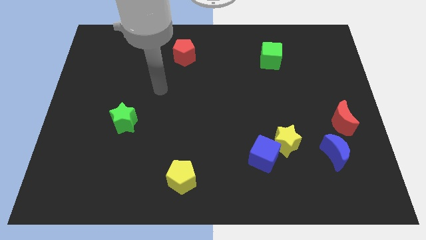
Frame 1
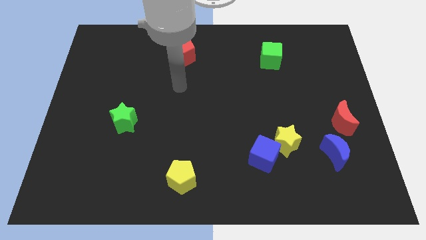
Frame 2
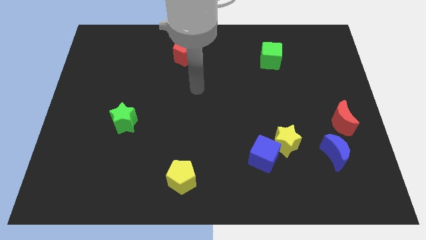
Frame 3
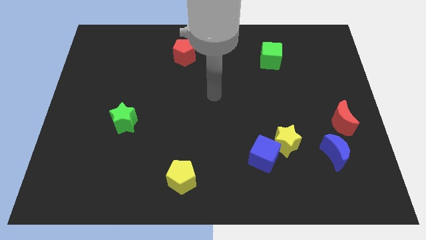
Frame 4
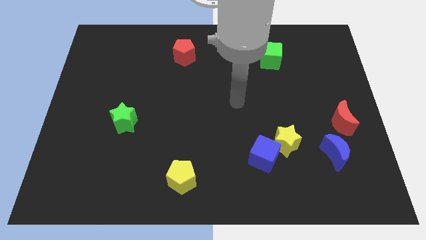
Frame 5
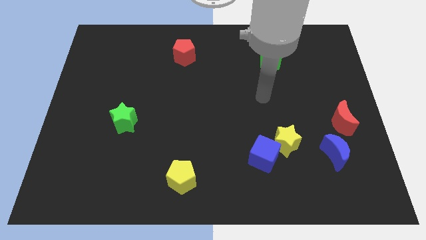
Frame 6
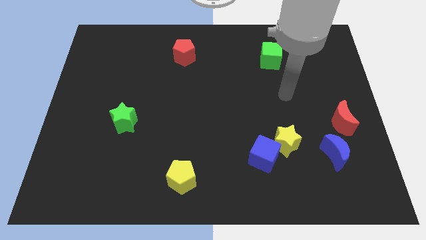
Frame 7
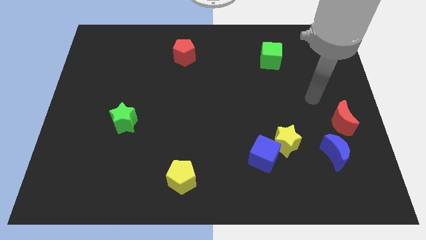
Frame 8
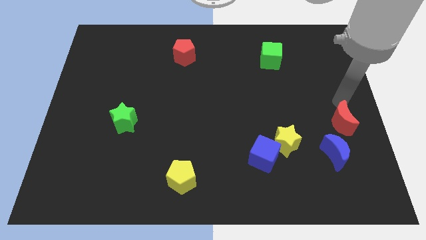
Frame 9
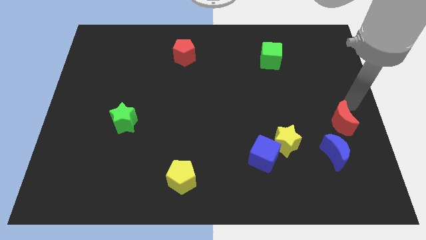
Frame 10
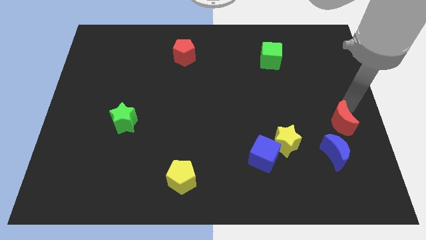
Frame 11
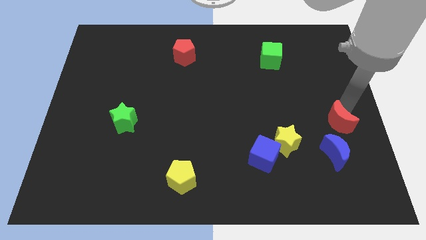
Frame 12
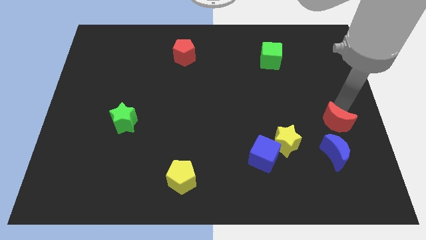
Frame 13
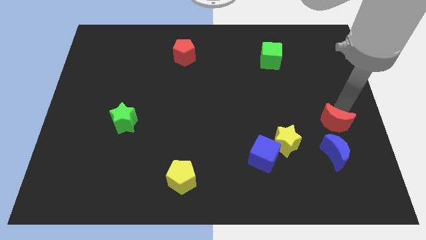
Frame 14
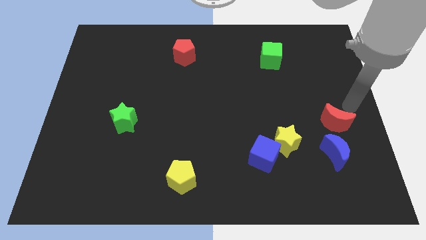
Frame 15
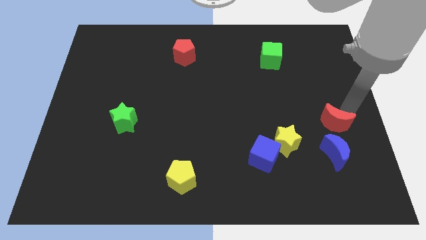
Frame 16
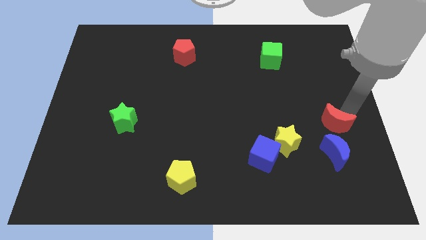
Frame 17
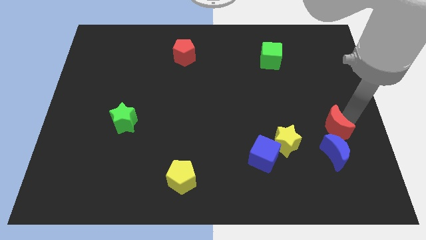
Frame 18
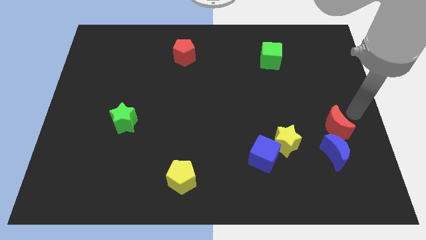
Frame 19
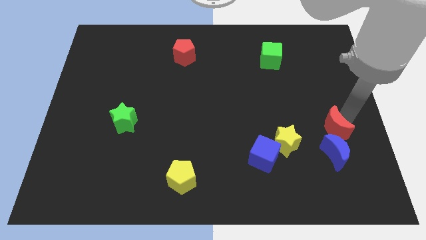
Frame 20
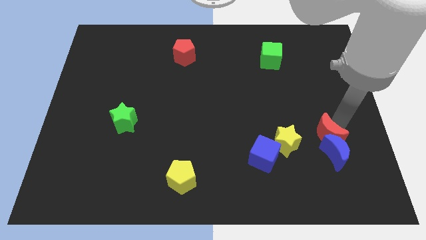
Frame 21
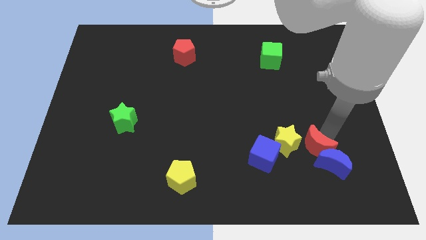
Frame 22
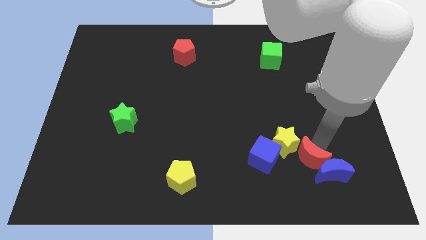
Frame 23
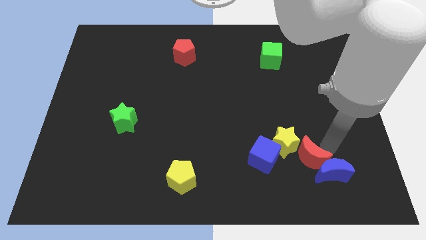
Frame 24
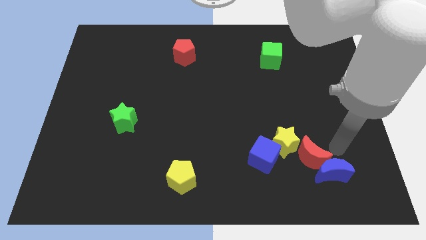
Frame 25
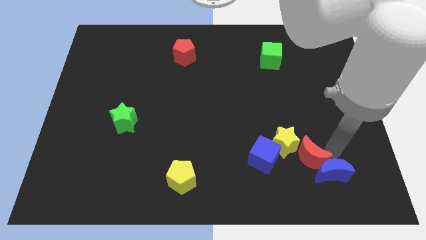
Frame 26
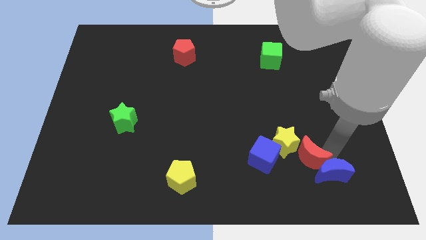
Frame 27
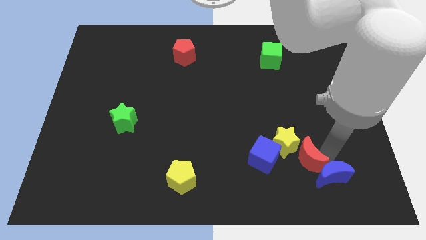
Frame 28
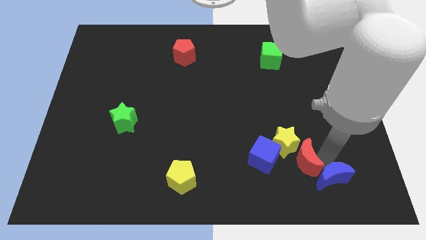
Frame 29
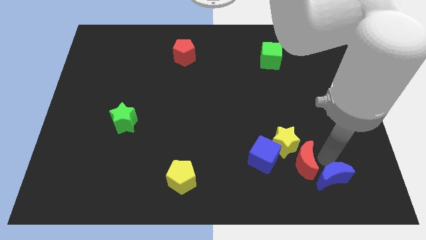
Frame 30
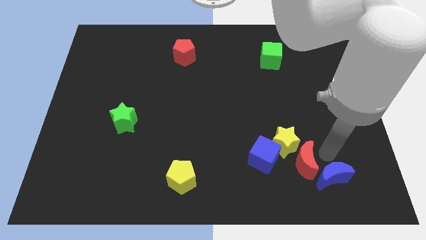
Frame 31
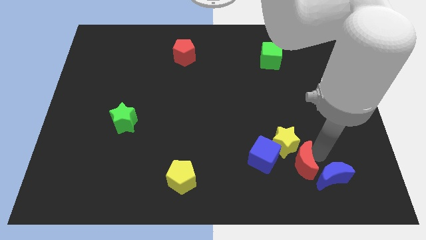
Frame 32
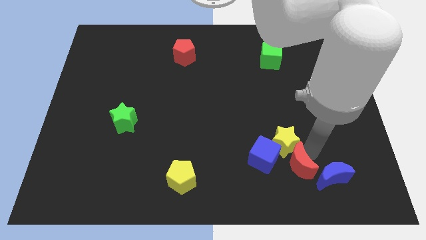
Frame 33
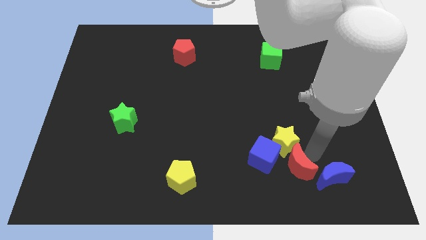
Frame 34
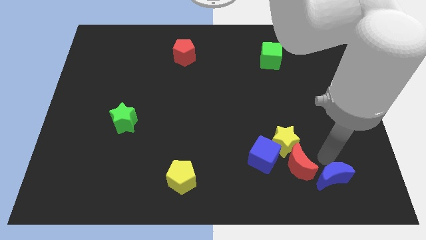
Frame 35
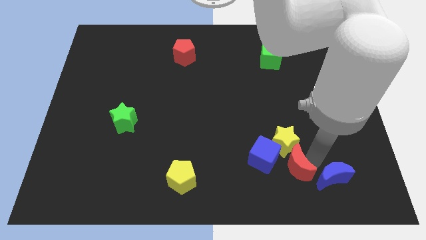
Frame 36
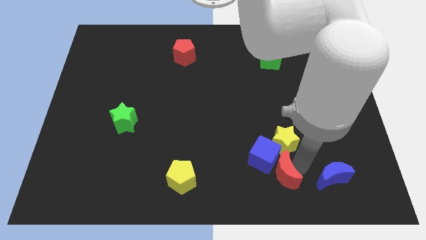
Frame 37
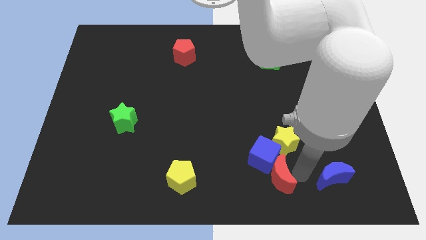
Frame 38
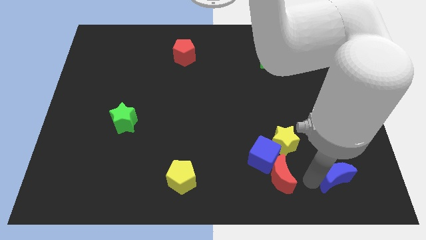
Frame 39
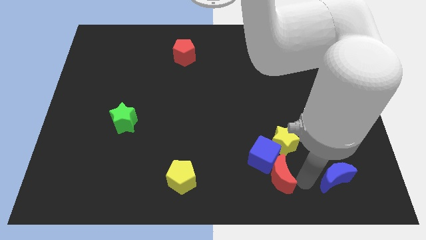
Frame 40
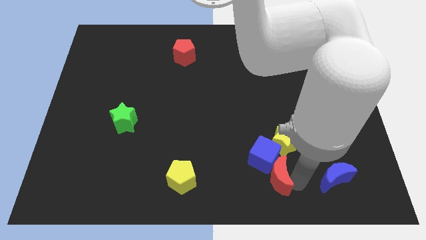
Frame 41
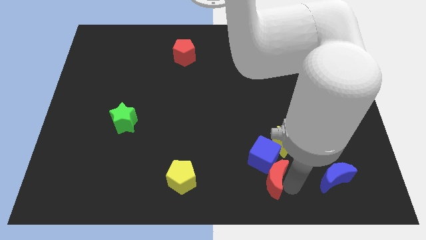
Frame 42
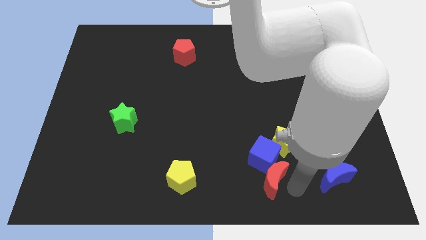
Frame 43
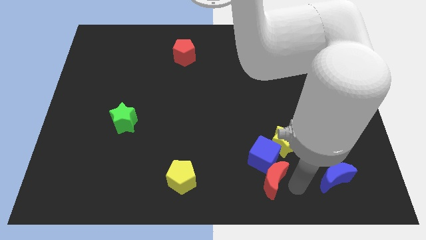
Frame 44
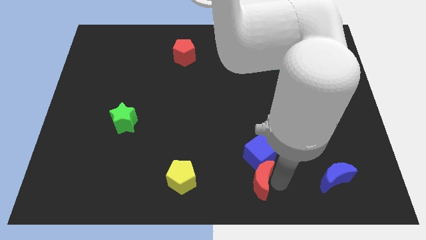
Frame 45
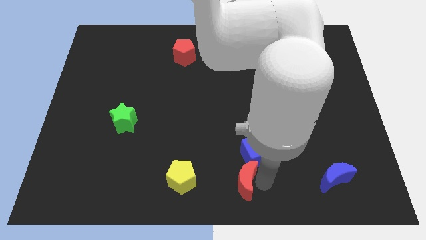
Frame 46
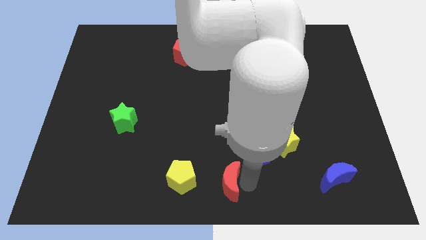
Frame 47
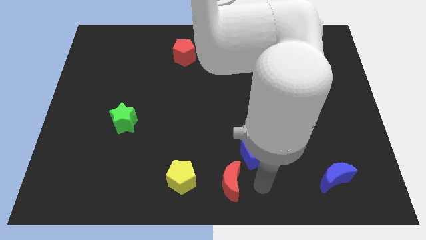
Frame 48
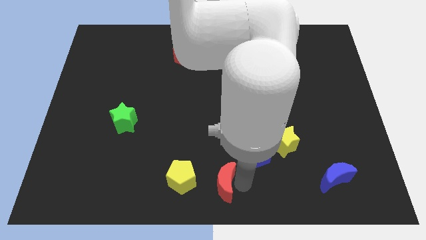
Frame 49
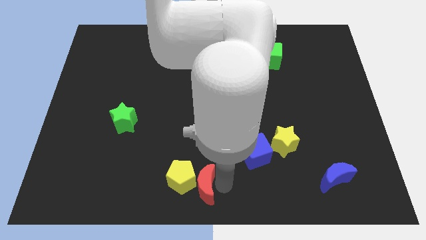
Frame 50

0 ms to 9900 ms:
push the red moon close to the yellow pentagon
